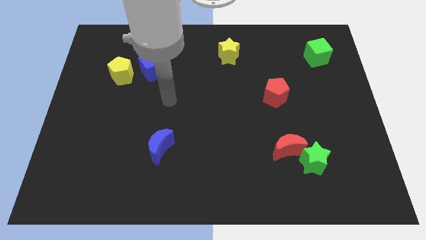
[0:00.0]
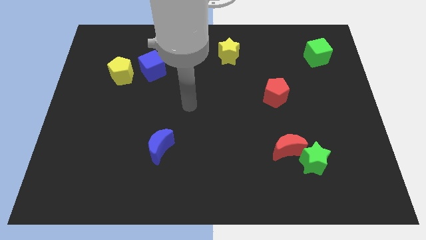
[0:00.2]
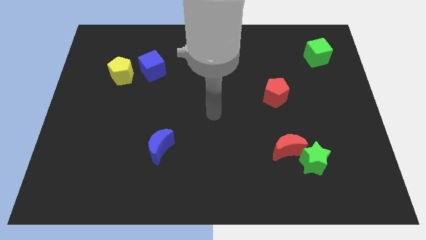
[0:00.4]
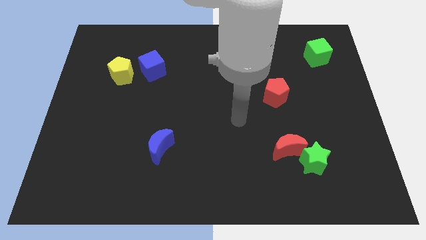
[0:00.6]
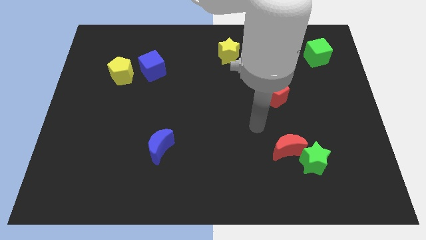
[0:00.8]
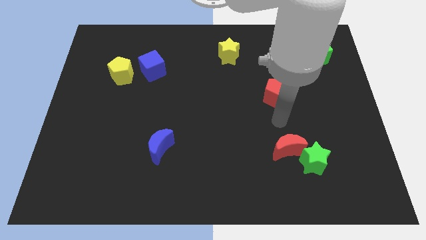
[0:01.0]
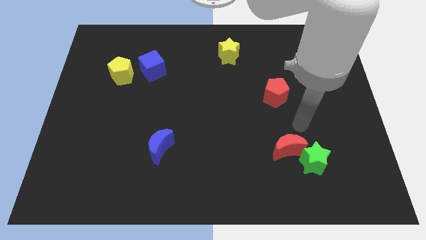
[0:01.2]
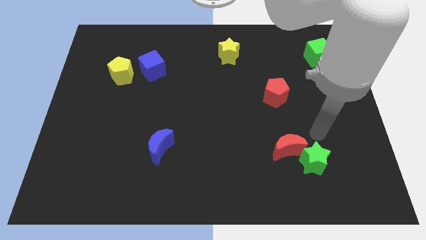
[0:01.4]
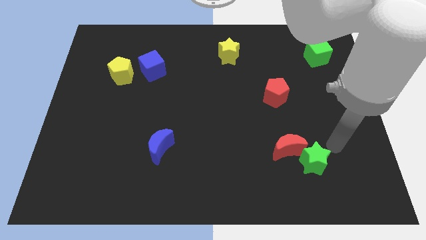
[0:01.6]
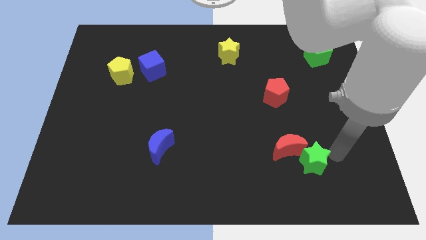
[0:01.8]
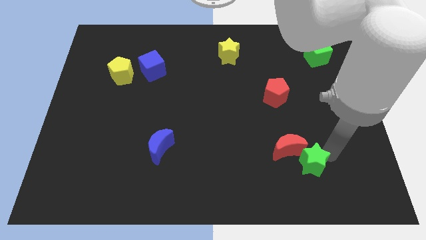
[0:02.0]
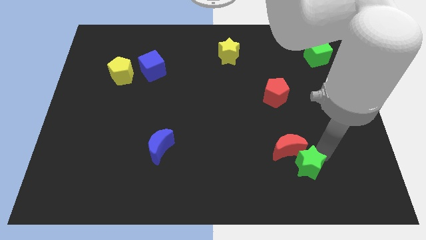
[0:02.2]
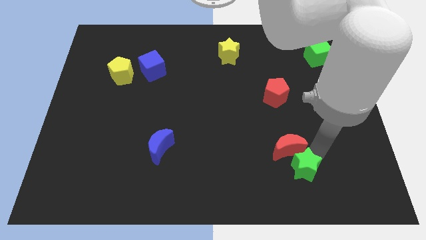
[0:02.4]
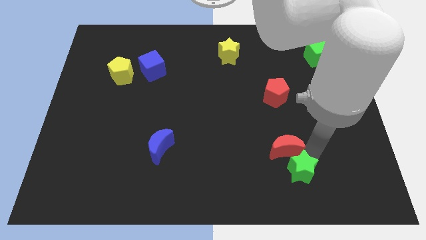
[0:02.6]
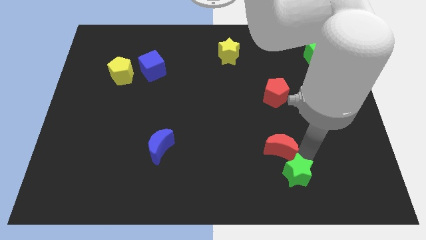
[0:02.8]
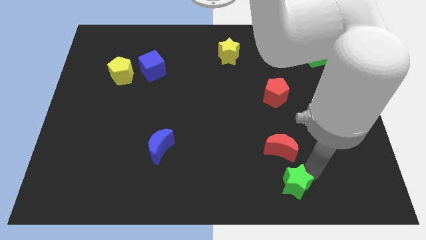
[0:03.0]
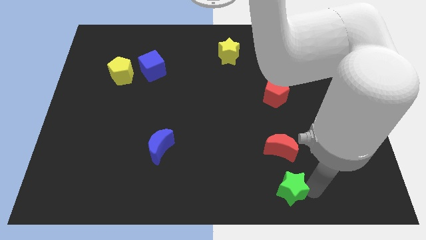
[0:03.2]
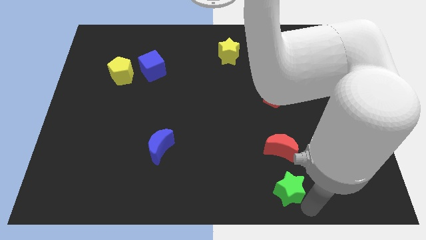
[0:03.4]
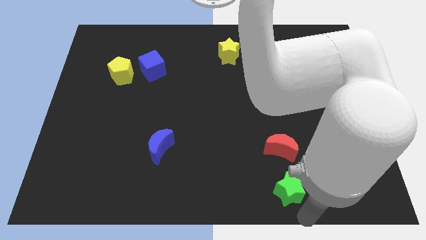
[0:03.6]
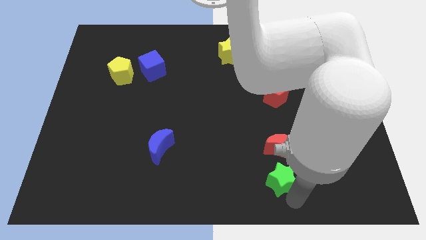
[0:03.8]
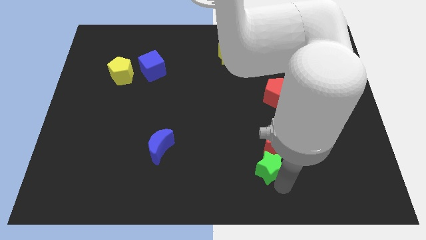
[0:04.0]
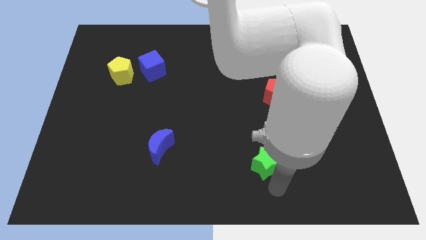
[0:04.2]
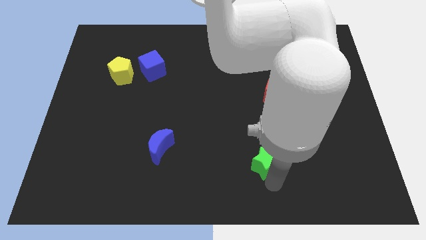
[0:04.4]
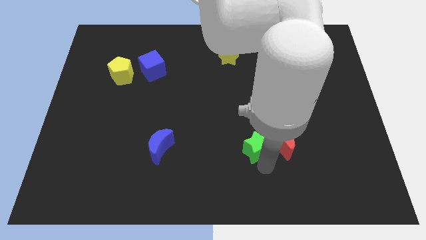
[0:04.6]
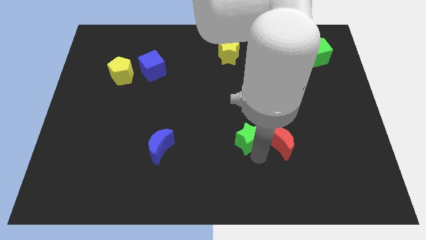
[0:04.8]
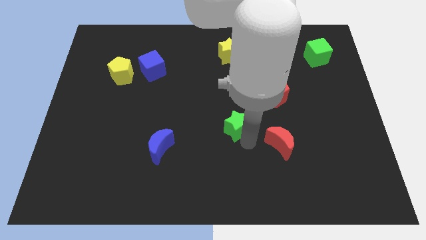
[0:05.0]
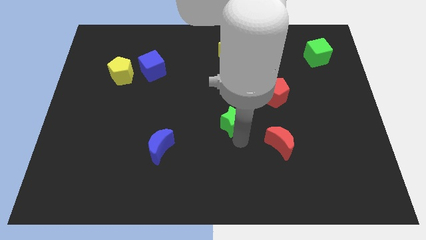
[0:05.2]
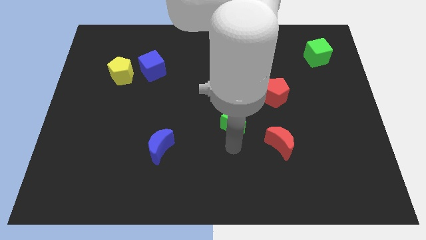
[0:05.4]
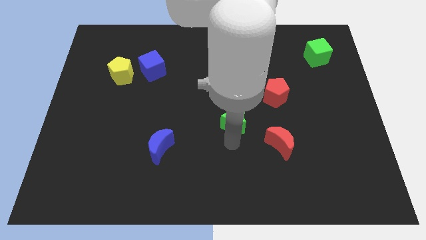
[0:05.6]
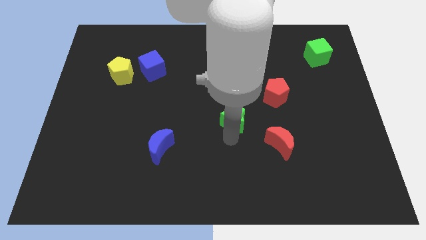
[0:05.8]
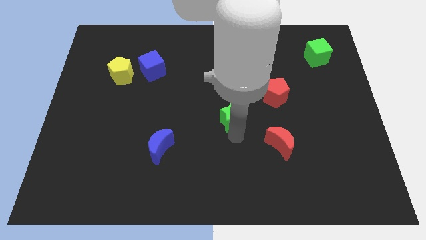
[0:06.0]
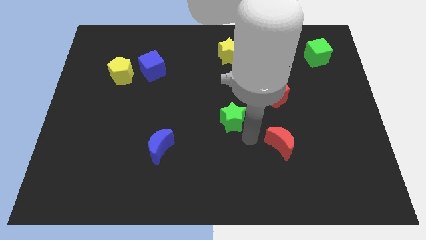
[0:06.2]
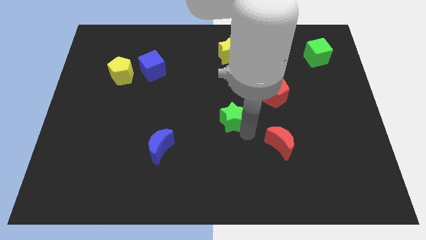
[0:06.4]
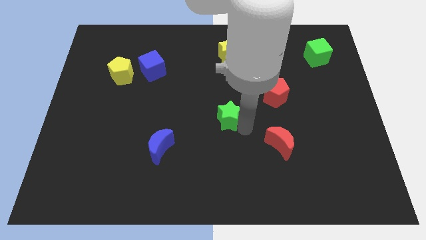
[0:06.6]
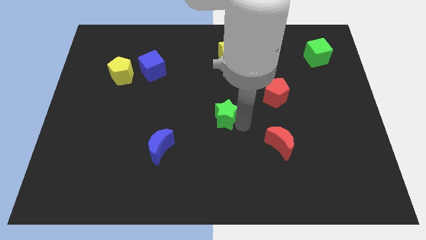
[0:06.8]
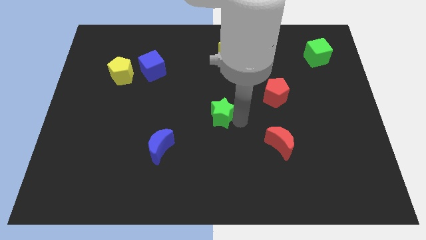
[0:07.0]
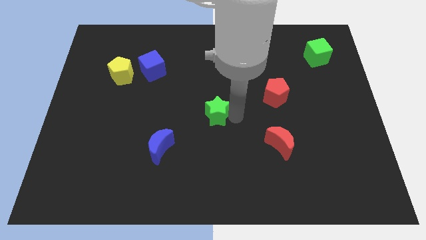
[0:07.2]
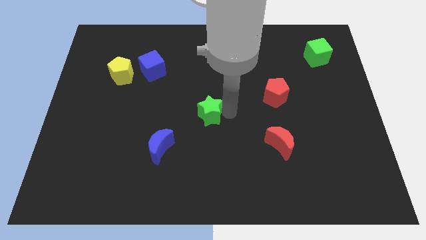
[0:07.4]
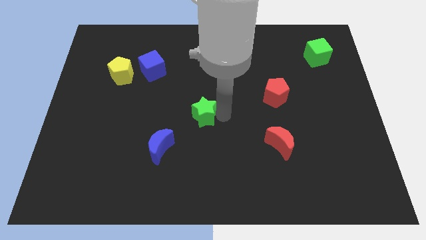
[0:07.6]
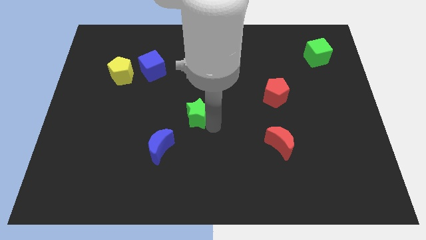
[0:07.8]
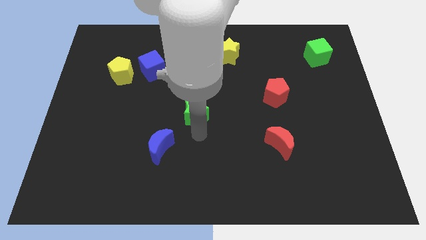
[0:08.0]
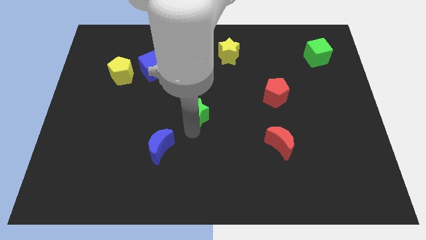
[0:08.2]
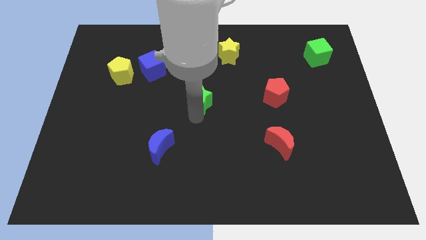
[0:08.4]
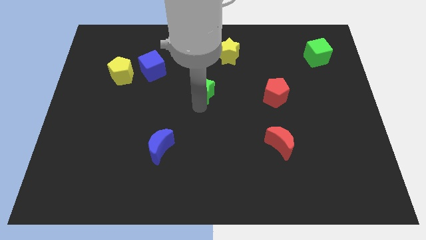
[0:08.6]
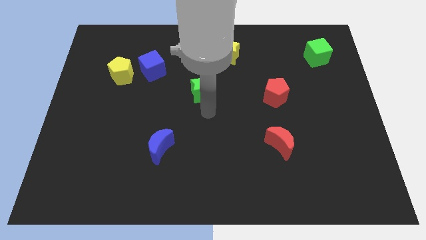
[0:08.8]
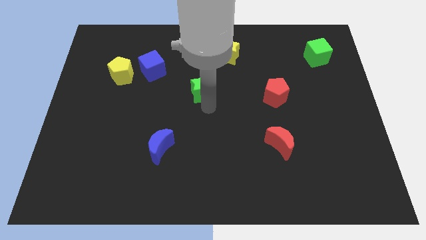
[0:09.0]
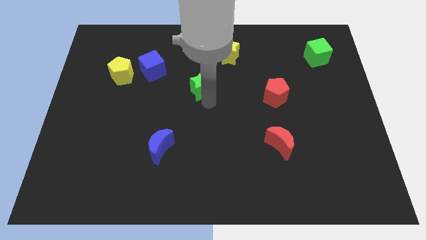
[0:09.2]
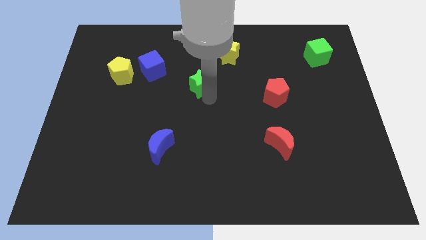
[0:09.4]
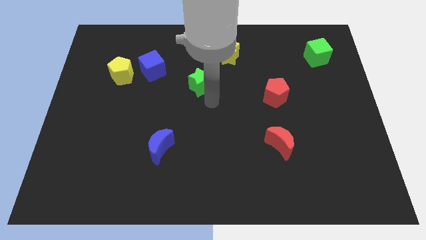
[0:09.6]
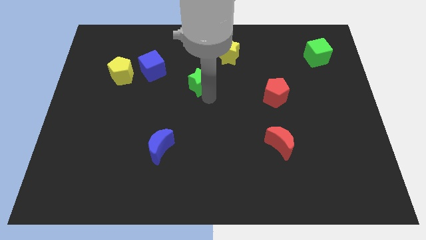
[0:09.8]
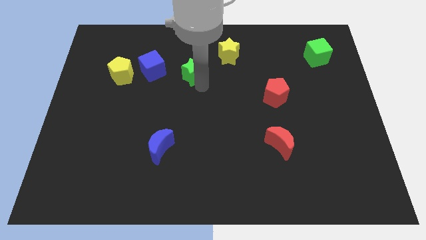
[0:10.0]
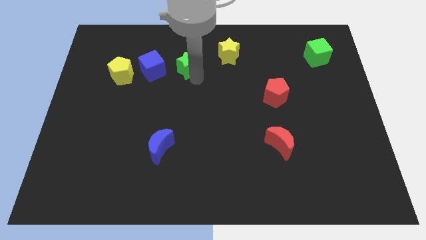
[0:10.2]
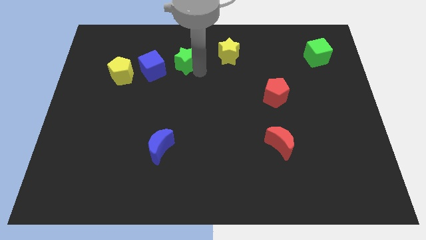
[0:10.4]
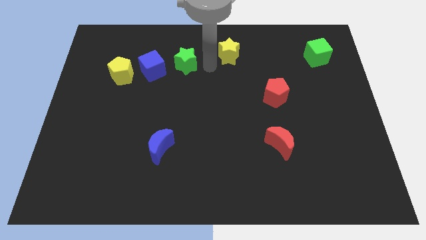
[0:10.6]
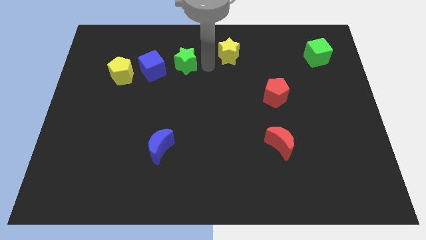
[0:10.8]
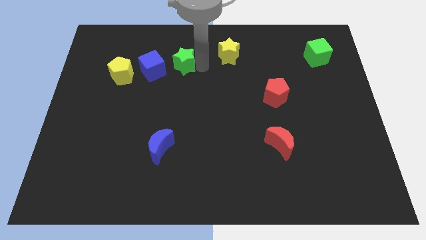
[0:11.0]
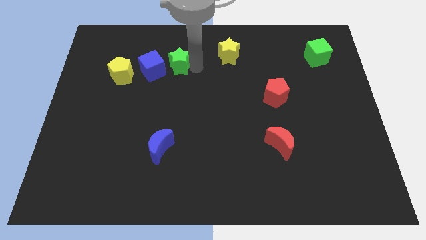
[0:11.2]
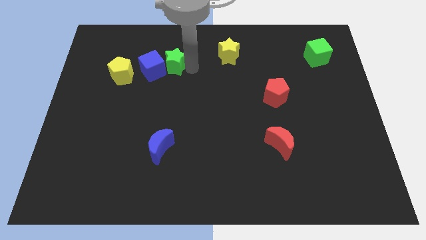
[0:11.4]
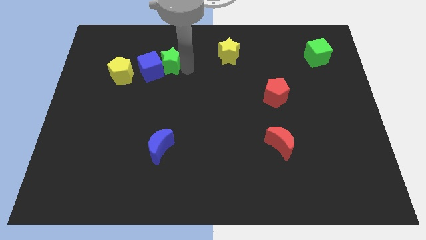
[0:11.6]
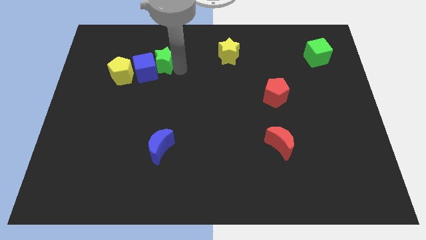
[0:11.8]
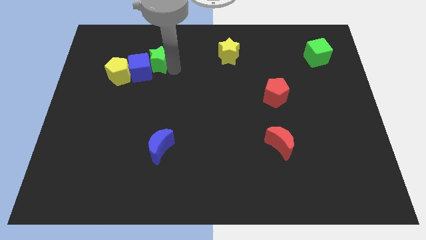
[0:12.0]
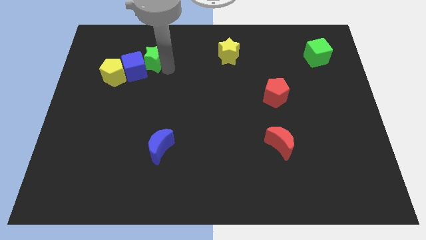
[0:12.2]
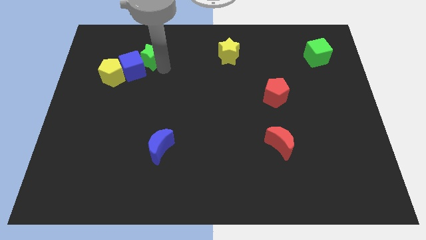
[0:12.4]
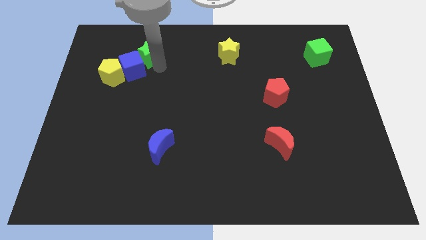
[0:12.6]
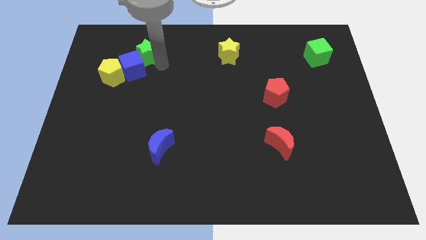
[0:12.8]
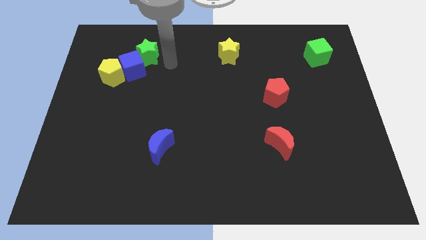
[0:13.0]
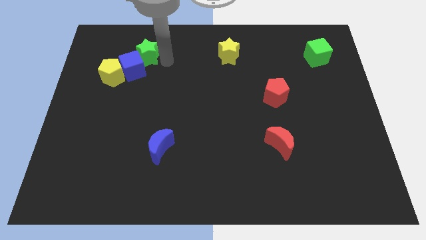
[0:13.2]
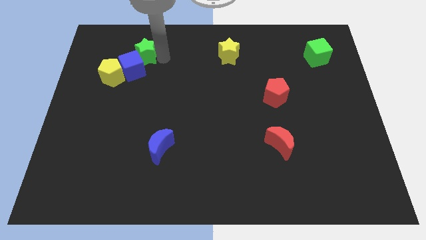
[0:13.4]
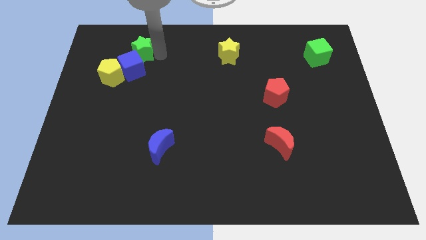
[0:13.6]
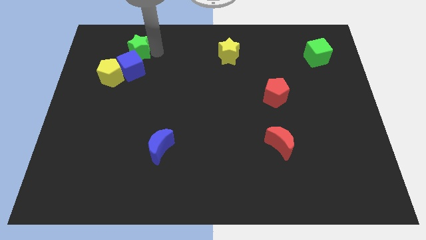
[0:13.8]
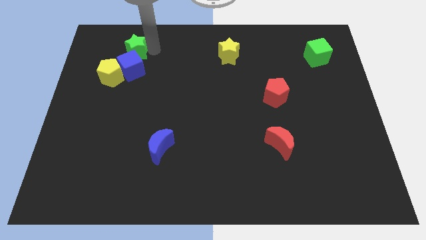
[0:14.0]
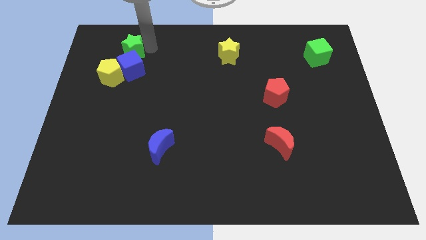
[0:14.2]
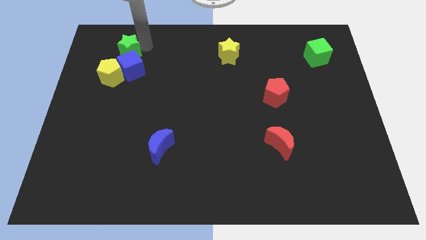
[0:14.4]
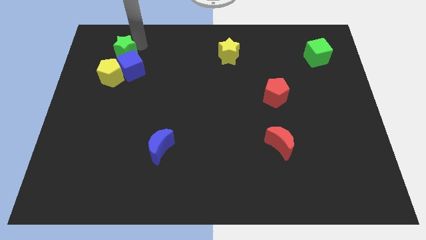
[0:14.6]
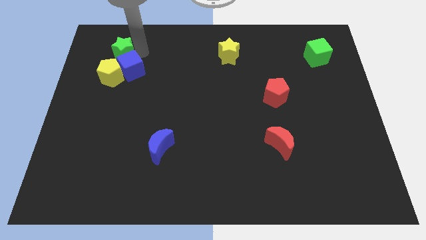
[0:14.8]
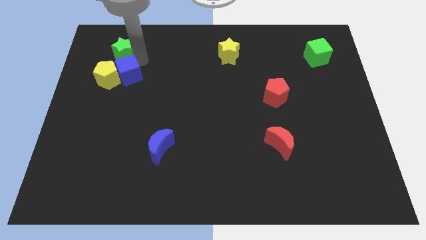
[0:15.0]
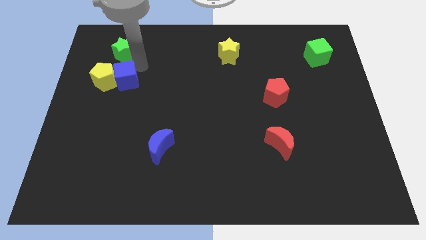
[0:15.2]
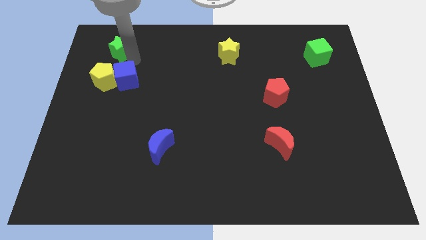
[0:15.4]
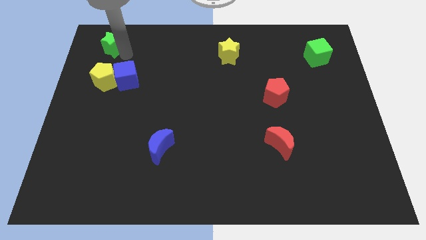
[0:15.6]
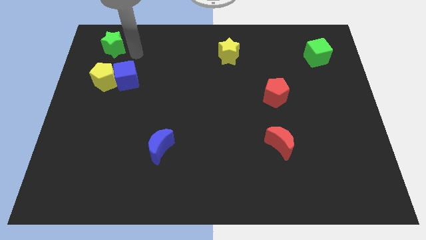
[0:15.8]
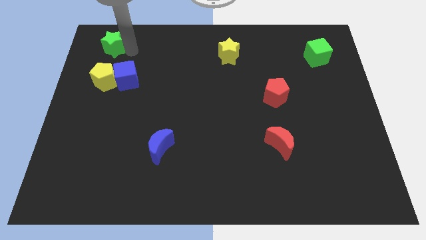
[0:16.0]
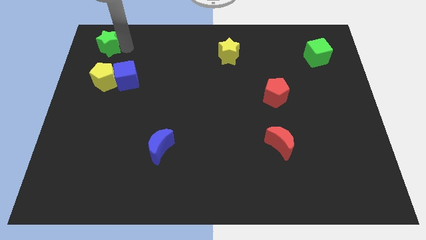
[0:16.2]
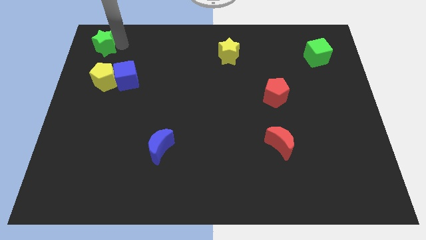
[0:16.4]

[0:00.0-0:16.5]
put the green star to the top left corner
